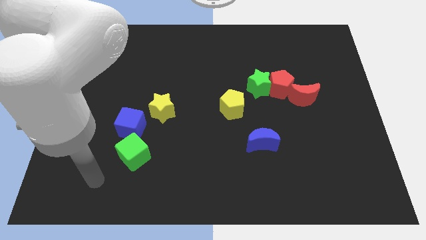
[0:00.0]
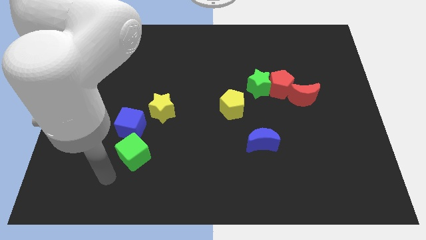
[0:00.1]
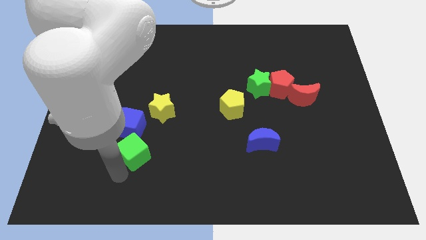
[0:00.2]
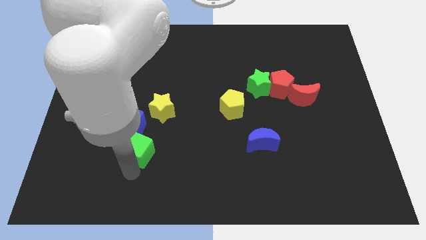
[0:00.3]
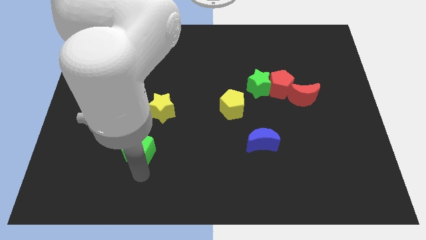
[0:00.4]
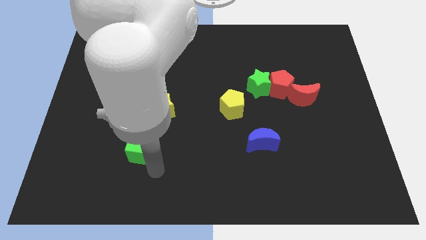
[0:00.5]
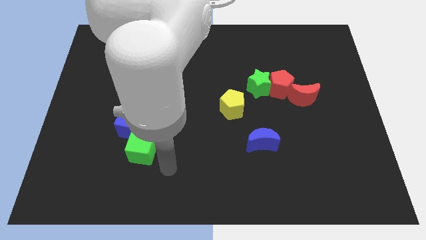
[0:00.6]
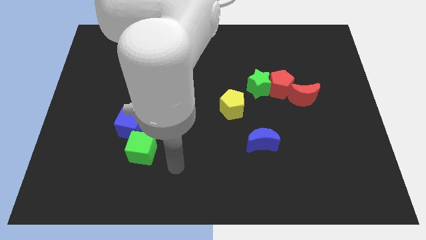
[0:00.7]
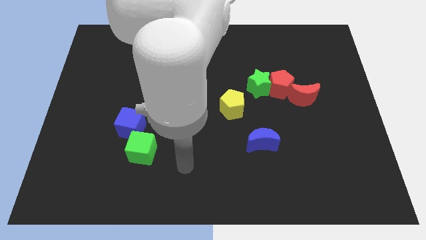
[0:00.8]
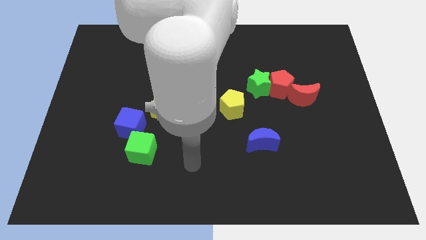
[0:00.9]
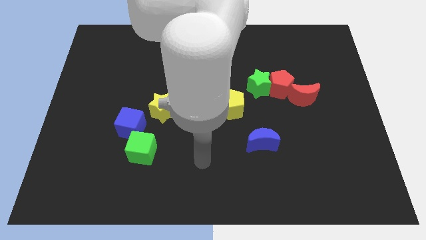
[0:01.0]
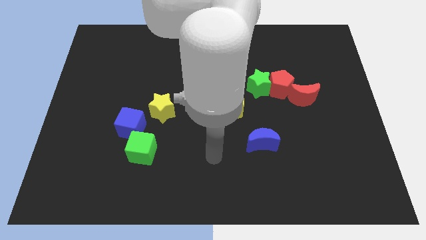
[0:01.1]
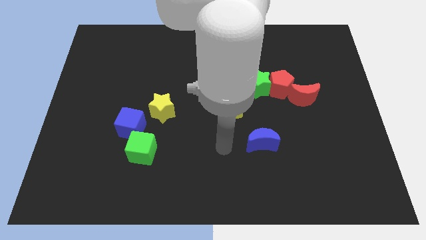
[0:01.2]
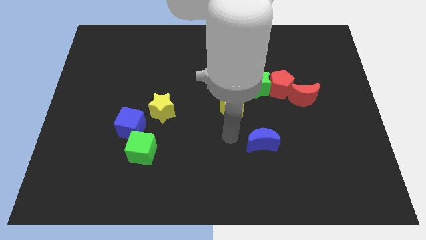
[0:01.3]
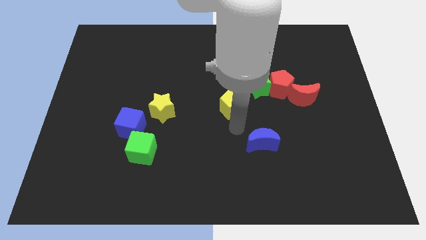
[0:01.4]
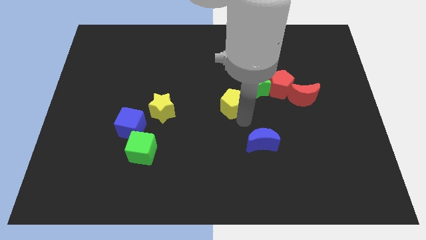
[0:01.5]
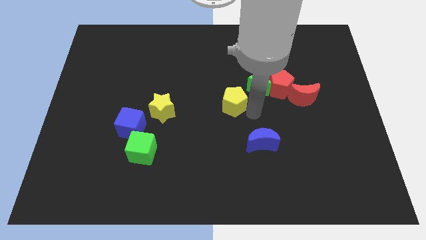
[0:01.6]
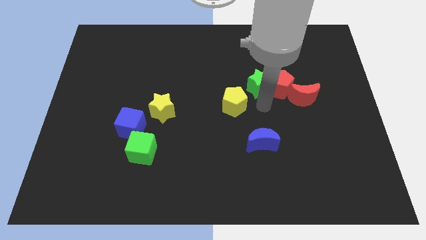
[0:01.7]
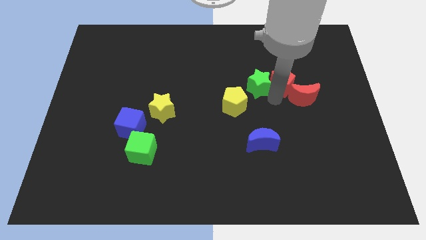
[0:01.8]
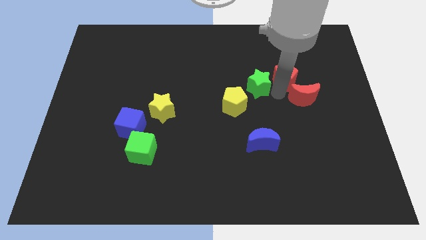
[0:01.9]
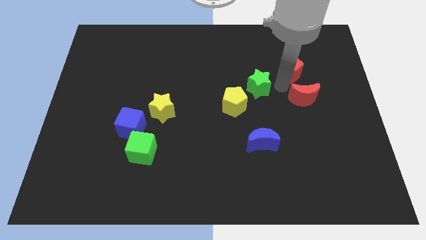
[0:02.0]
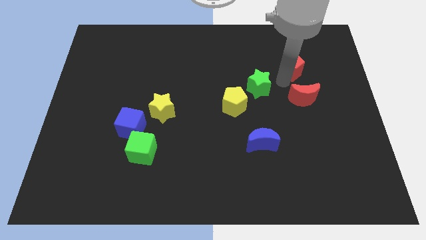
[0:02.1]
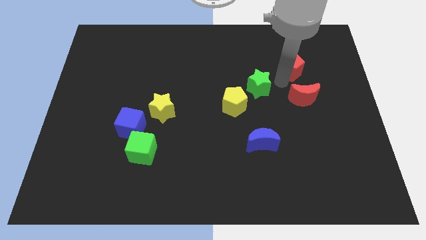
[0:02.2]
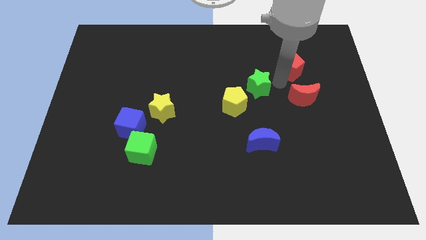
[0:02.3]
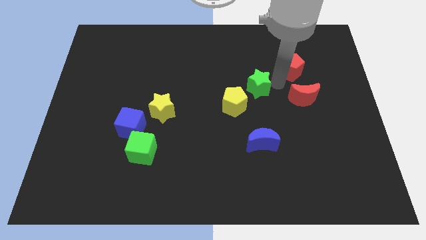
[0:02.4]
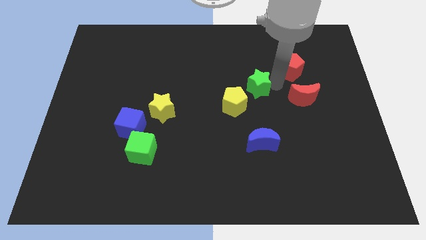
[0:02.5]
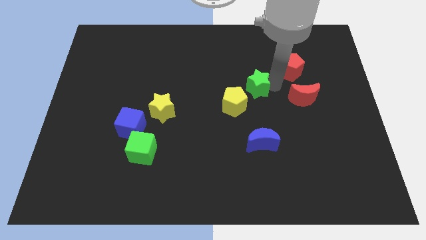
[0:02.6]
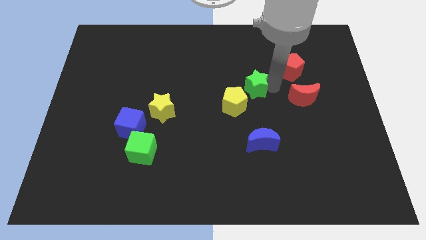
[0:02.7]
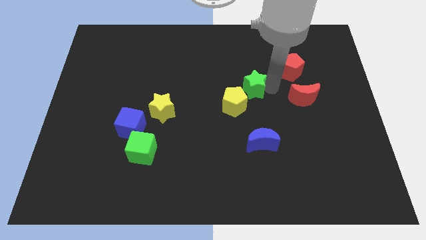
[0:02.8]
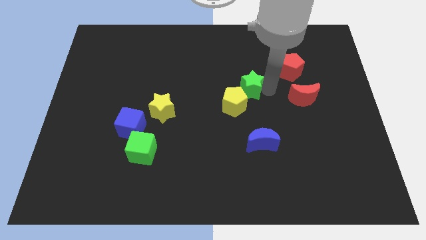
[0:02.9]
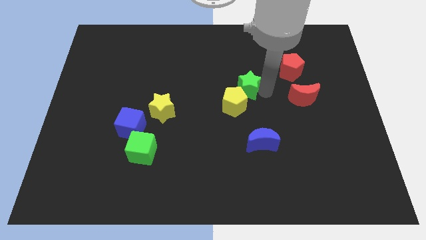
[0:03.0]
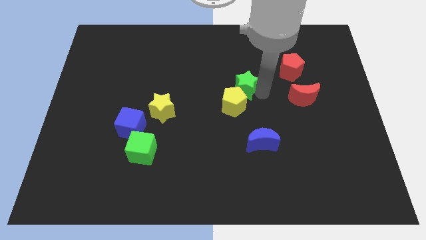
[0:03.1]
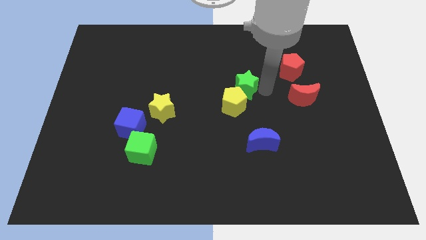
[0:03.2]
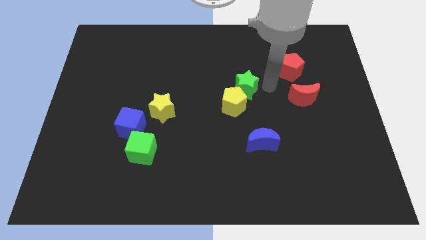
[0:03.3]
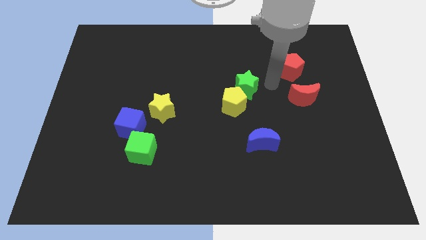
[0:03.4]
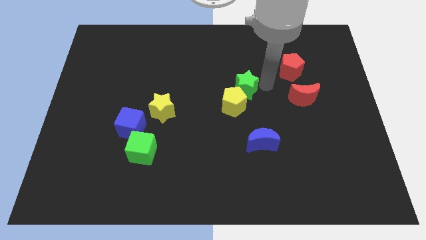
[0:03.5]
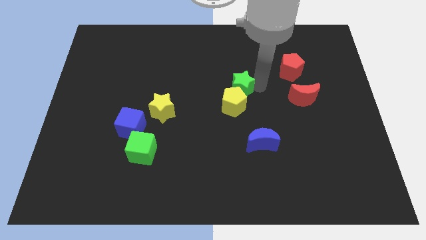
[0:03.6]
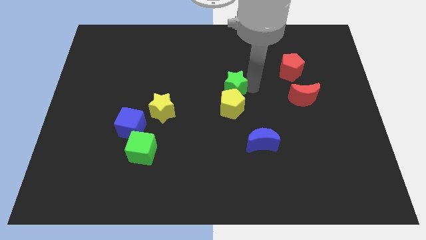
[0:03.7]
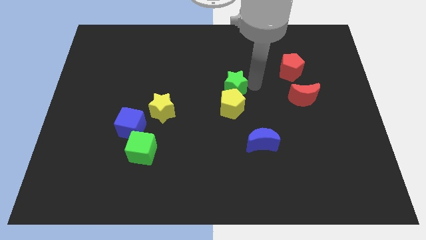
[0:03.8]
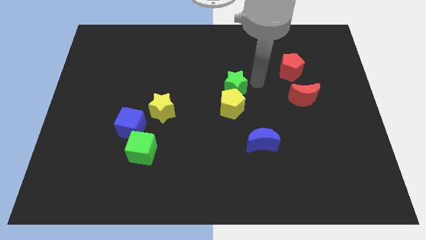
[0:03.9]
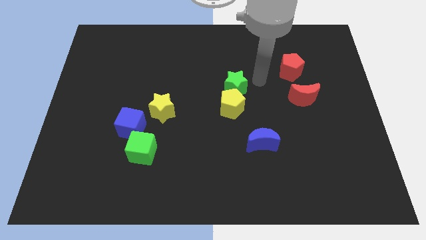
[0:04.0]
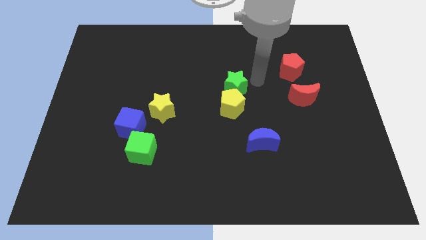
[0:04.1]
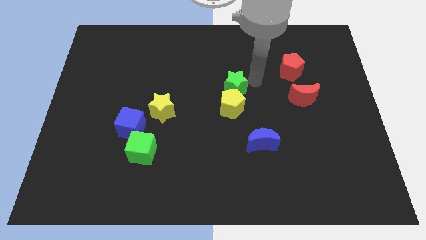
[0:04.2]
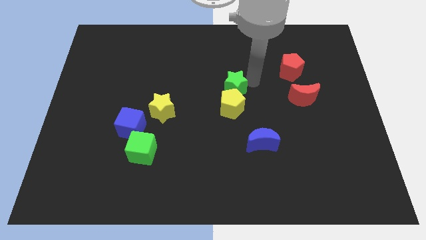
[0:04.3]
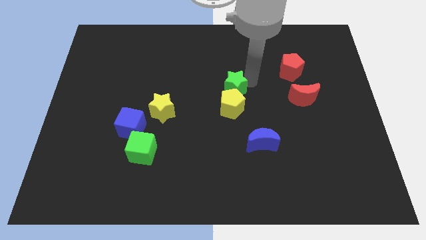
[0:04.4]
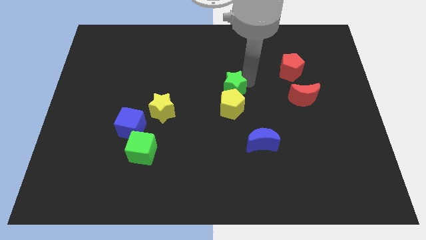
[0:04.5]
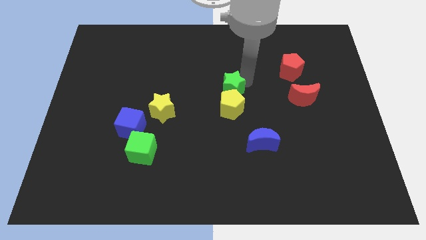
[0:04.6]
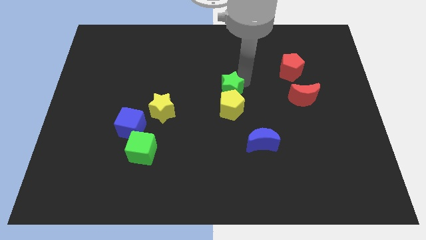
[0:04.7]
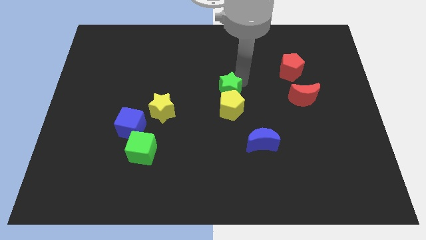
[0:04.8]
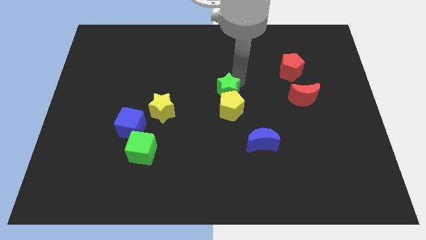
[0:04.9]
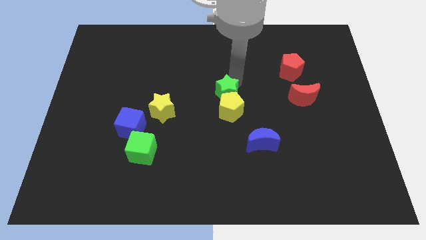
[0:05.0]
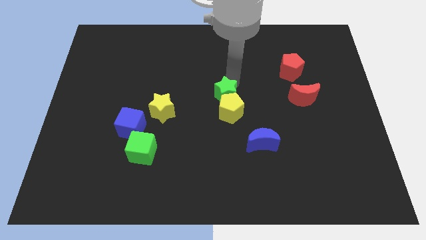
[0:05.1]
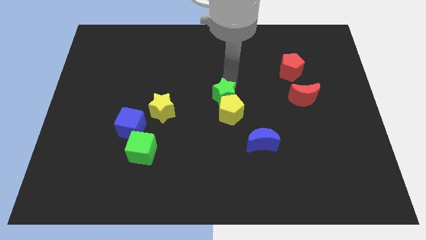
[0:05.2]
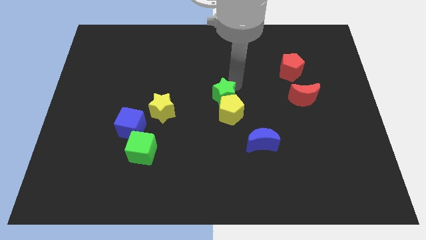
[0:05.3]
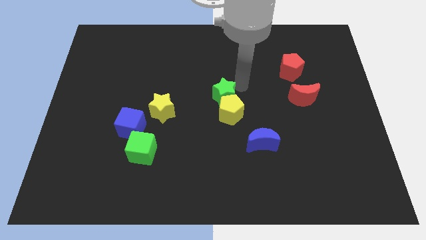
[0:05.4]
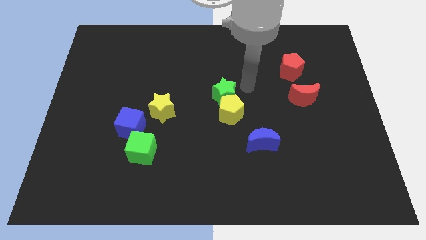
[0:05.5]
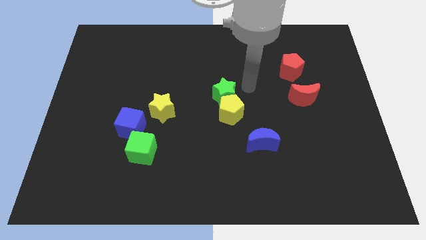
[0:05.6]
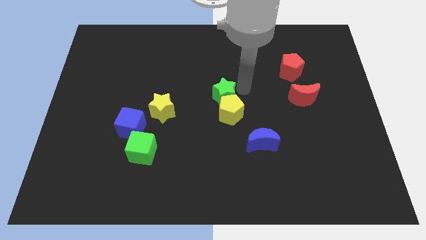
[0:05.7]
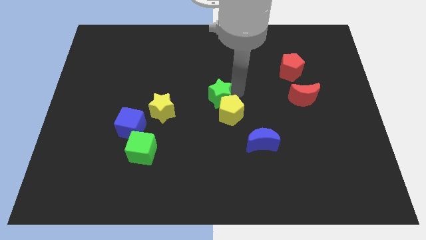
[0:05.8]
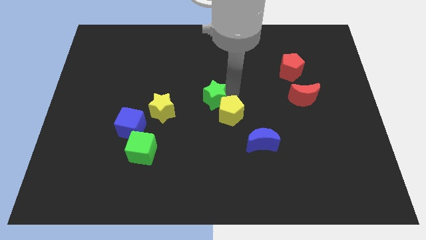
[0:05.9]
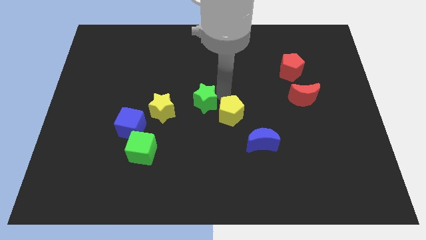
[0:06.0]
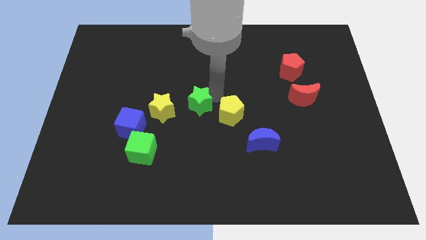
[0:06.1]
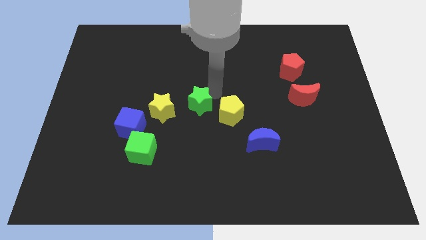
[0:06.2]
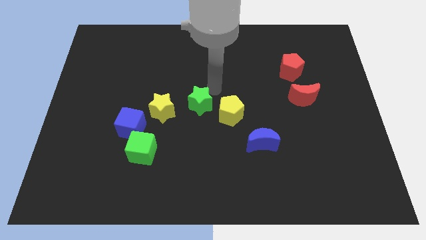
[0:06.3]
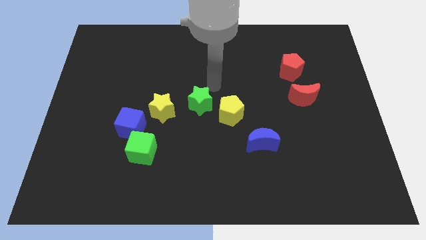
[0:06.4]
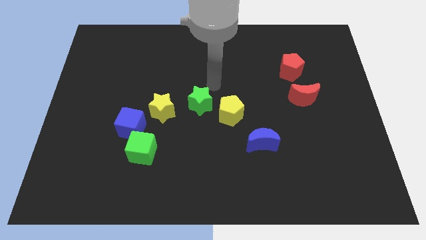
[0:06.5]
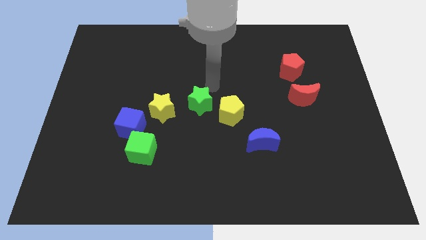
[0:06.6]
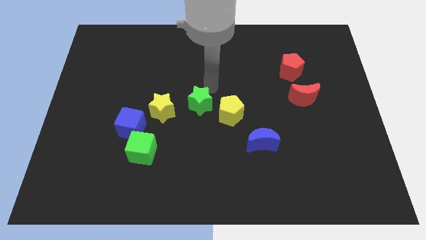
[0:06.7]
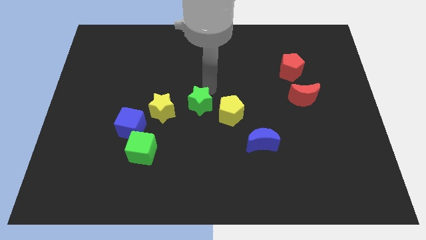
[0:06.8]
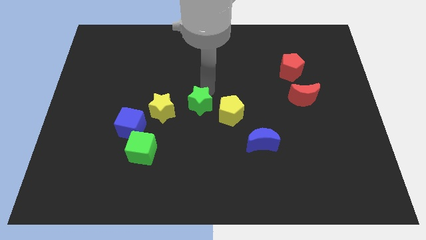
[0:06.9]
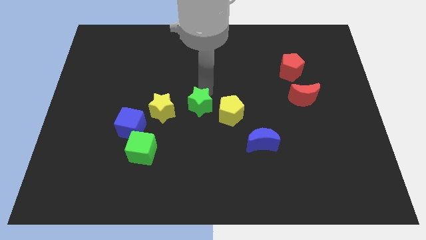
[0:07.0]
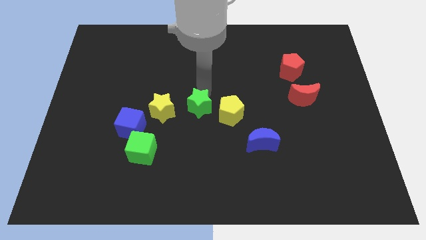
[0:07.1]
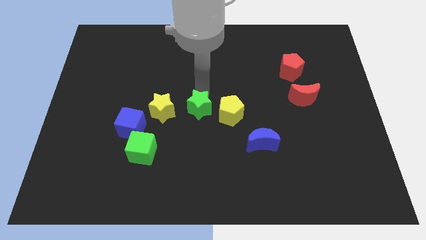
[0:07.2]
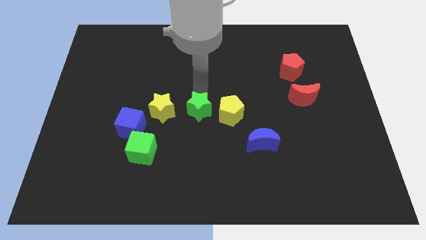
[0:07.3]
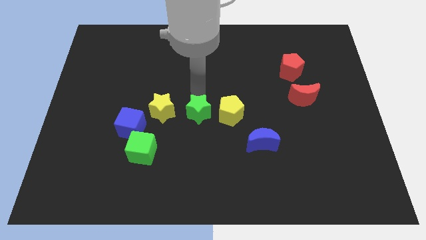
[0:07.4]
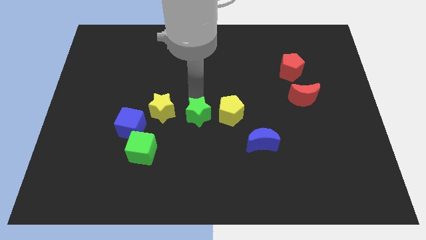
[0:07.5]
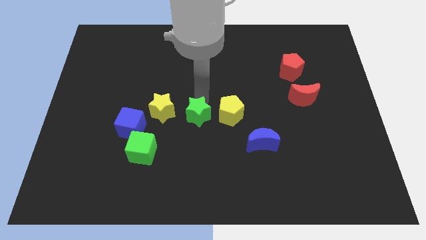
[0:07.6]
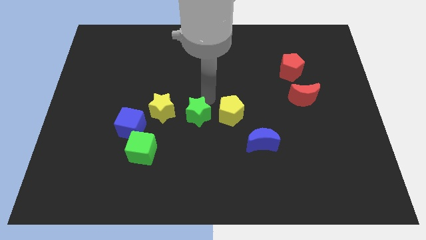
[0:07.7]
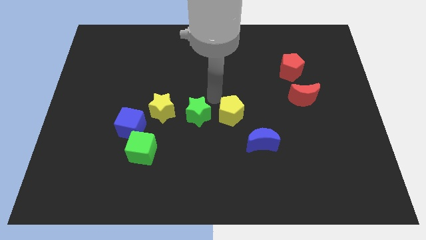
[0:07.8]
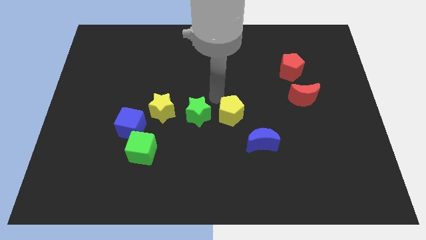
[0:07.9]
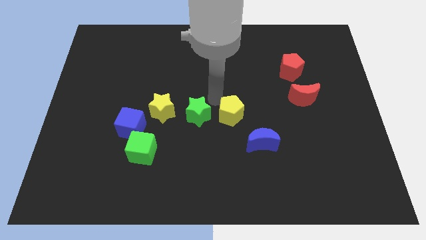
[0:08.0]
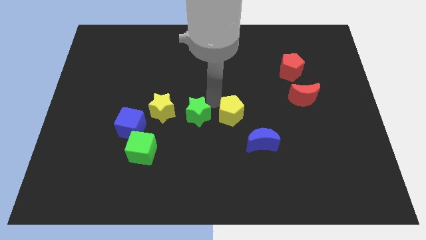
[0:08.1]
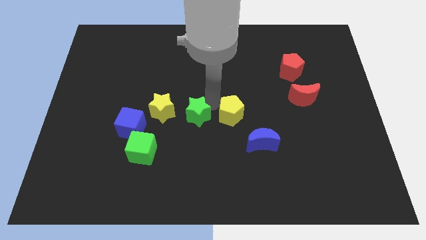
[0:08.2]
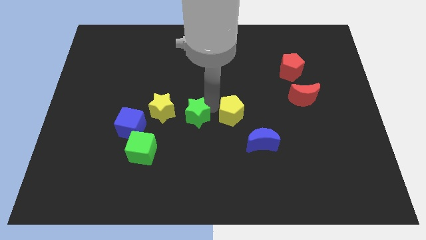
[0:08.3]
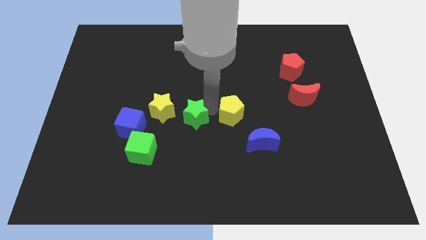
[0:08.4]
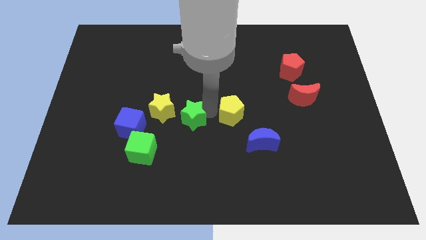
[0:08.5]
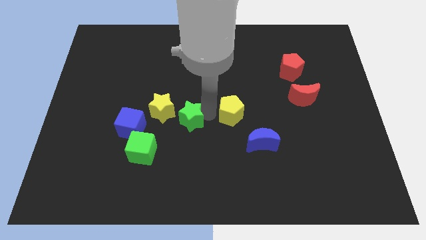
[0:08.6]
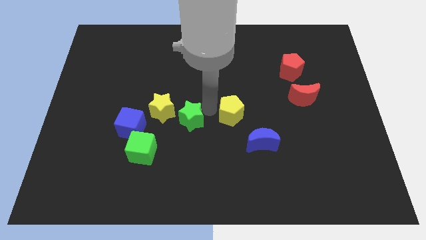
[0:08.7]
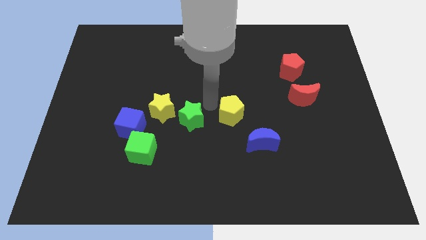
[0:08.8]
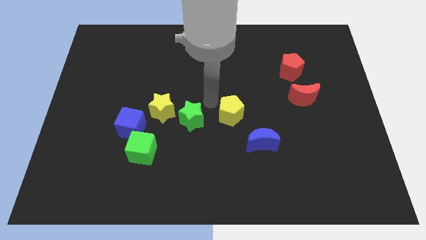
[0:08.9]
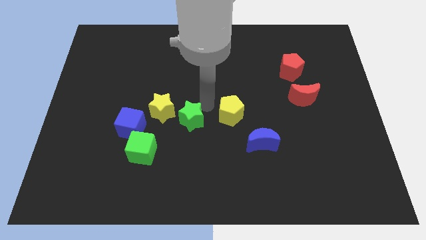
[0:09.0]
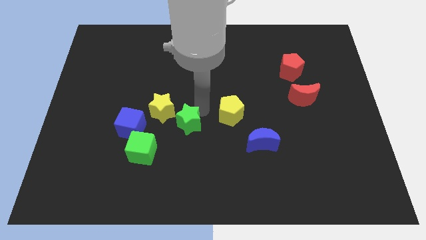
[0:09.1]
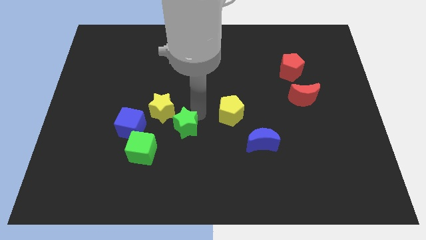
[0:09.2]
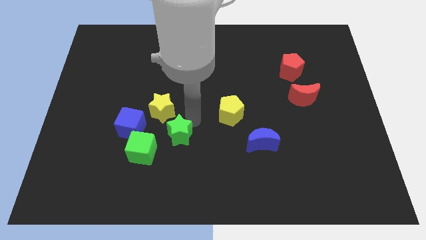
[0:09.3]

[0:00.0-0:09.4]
slide the green star to the bottom side of the yellow star
